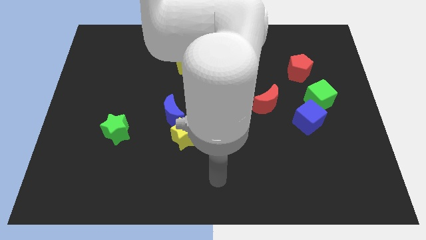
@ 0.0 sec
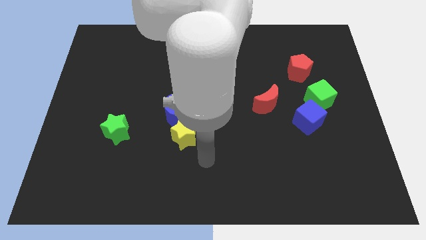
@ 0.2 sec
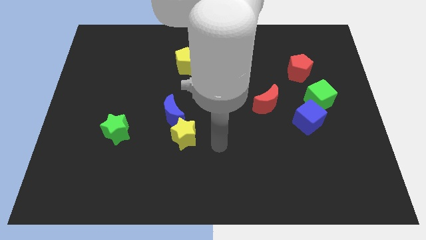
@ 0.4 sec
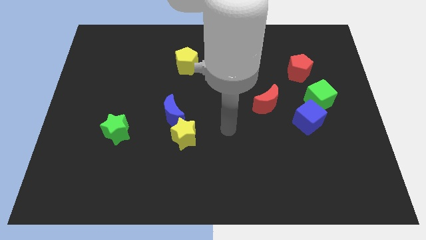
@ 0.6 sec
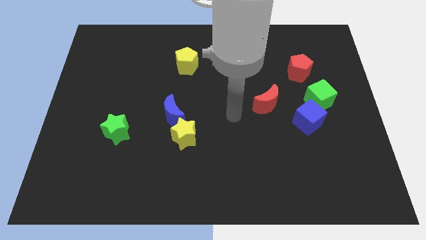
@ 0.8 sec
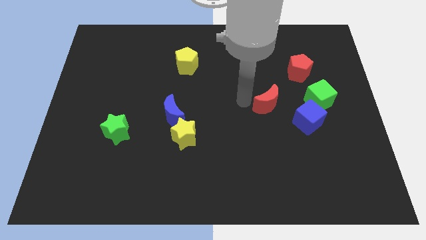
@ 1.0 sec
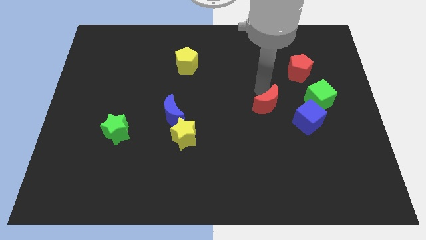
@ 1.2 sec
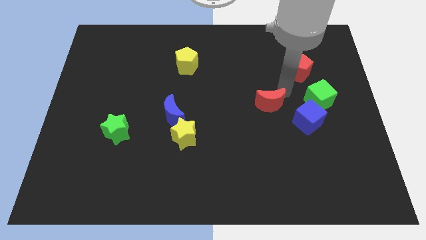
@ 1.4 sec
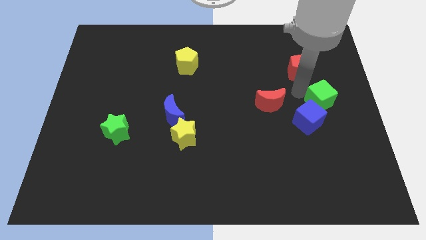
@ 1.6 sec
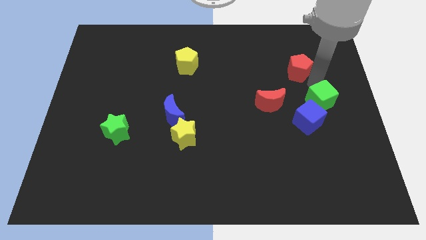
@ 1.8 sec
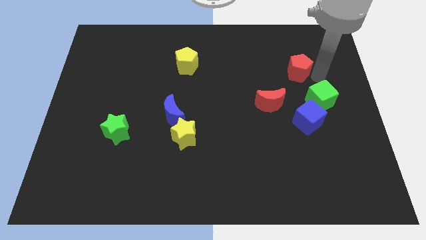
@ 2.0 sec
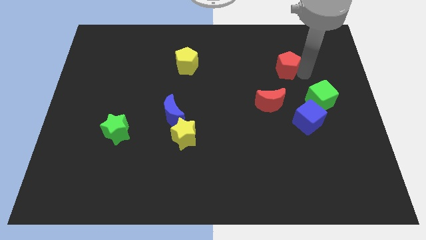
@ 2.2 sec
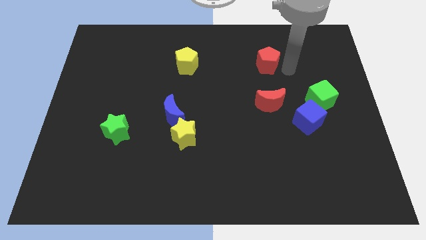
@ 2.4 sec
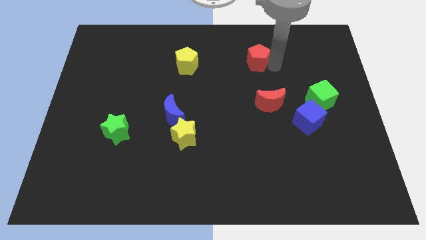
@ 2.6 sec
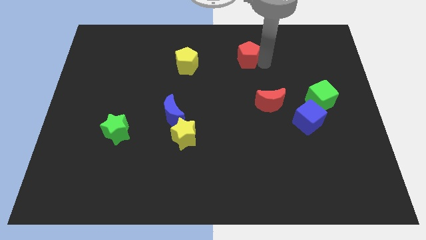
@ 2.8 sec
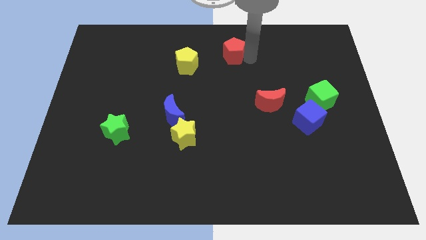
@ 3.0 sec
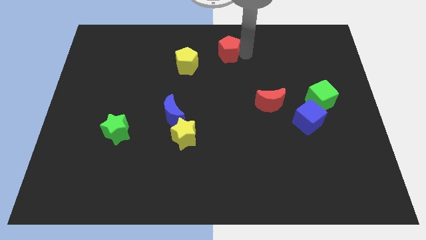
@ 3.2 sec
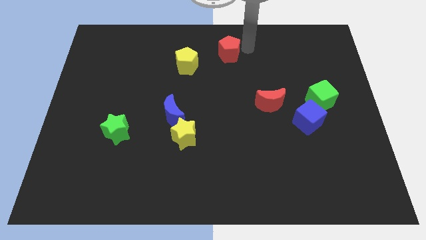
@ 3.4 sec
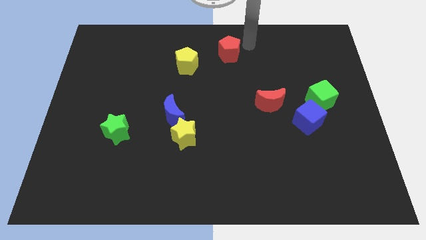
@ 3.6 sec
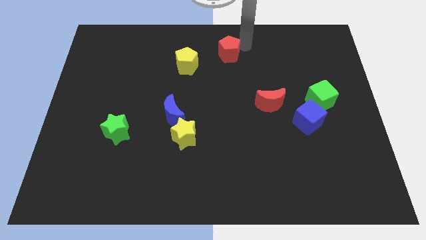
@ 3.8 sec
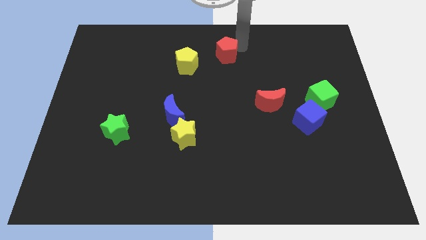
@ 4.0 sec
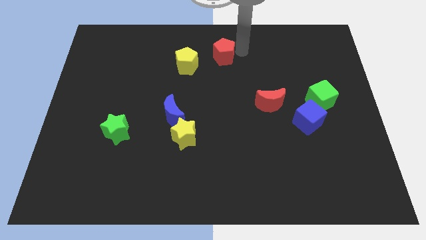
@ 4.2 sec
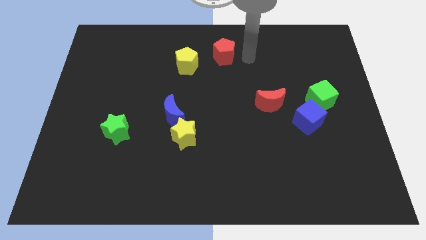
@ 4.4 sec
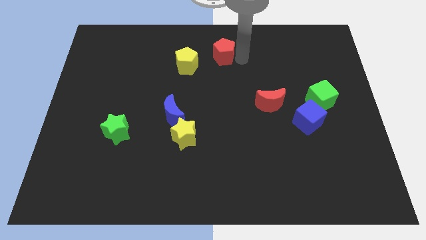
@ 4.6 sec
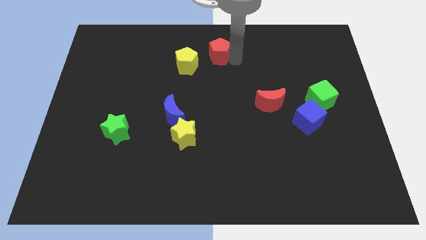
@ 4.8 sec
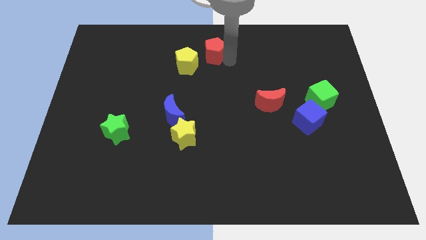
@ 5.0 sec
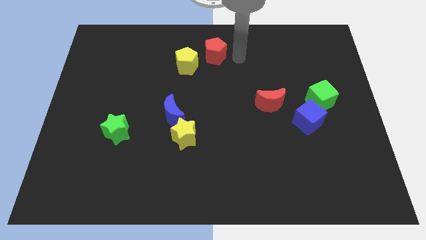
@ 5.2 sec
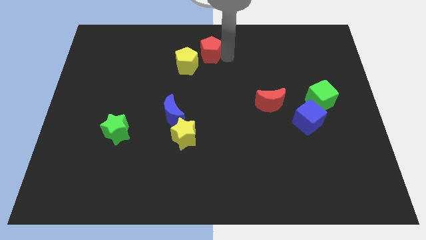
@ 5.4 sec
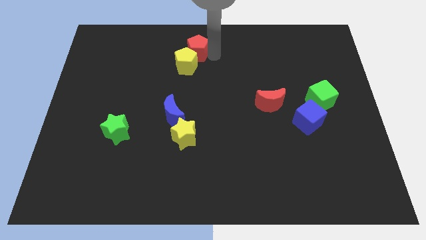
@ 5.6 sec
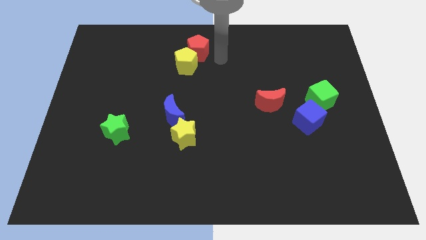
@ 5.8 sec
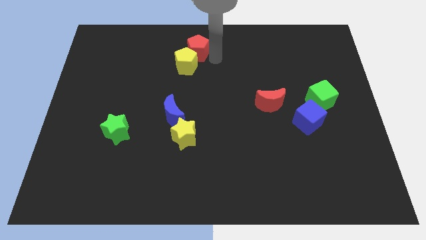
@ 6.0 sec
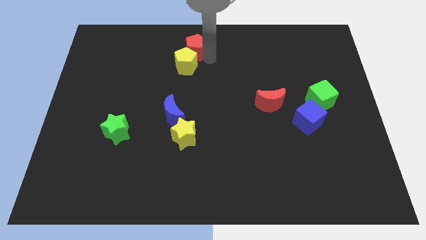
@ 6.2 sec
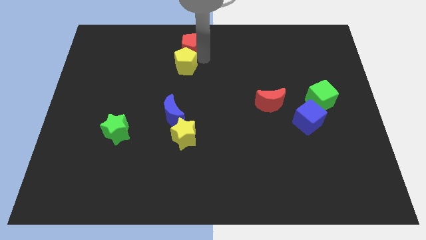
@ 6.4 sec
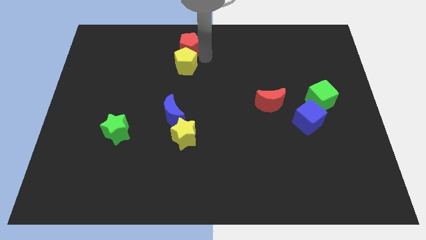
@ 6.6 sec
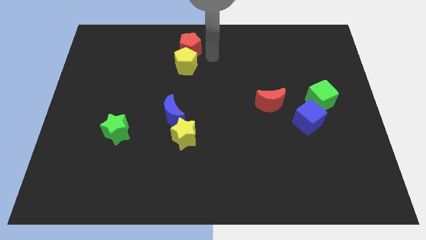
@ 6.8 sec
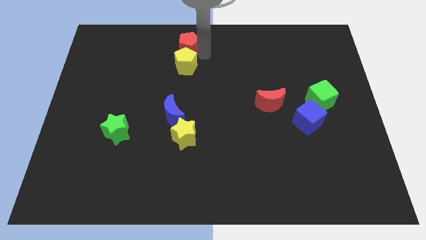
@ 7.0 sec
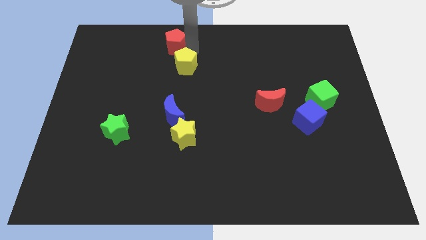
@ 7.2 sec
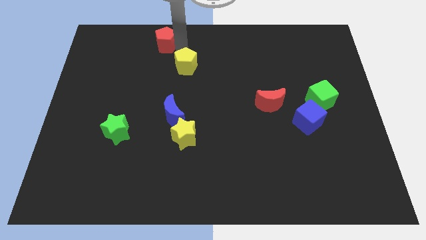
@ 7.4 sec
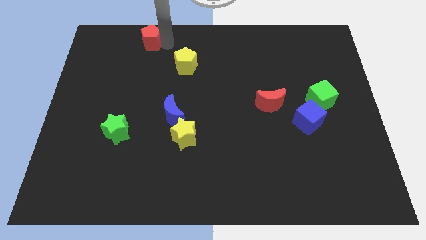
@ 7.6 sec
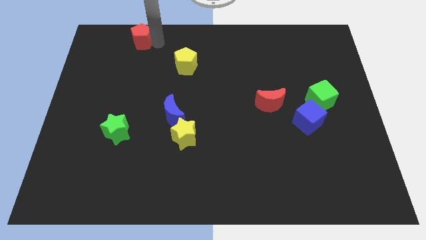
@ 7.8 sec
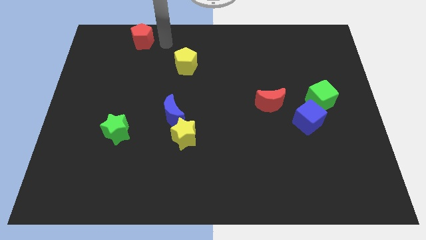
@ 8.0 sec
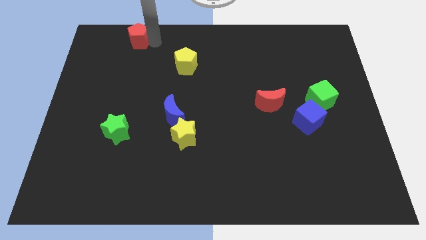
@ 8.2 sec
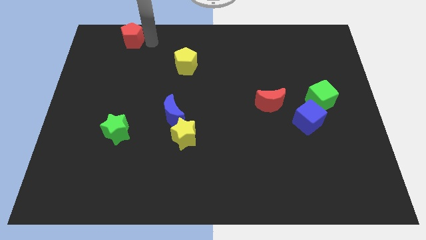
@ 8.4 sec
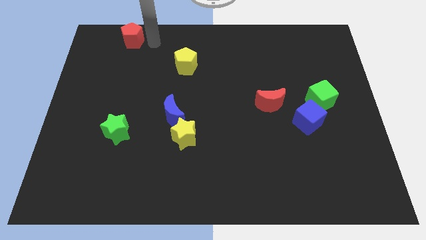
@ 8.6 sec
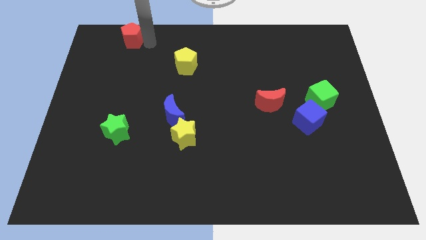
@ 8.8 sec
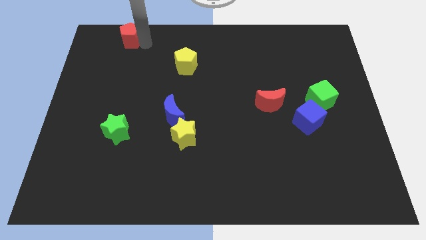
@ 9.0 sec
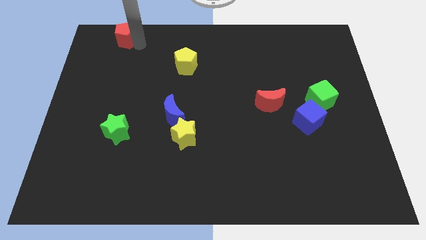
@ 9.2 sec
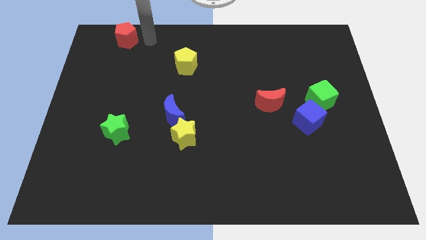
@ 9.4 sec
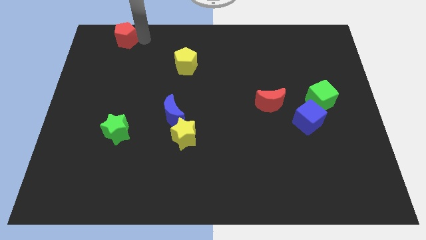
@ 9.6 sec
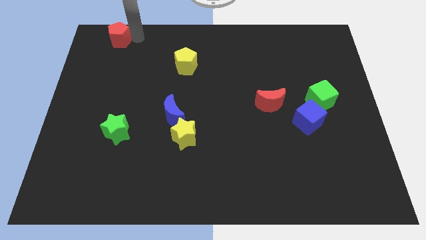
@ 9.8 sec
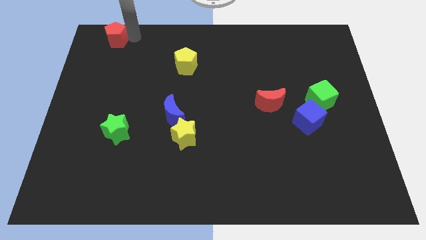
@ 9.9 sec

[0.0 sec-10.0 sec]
put the red pentagon to the top left of the board

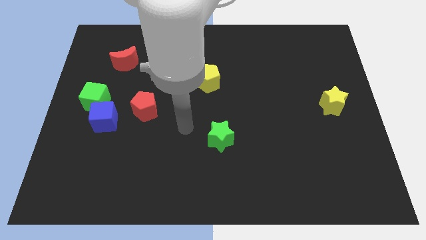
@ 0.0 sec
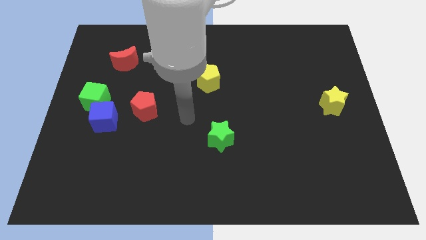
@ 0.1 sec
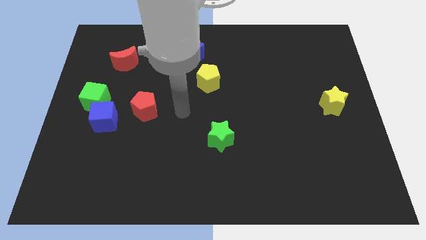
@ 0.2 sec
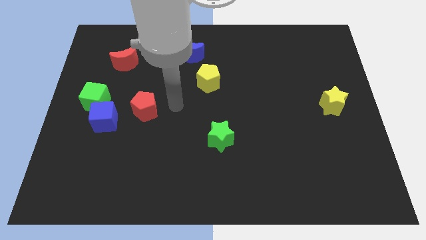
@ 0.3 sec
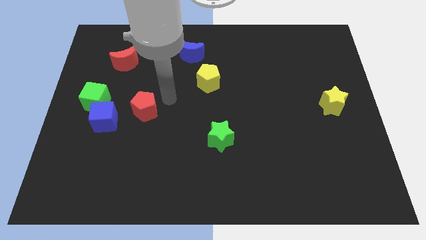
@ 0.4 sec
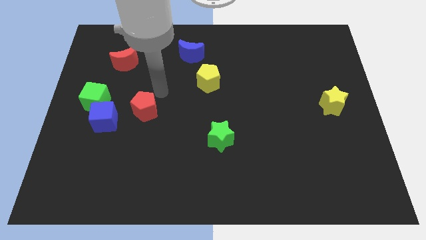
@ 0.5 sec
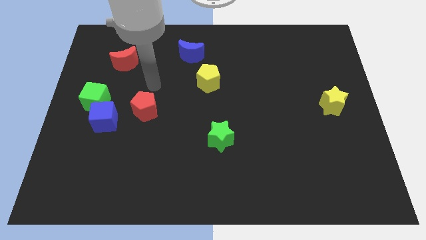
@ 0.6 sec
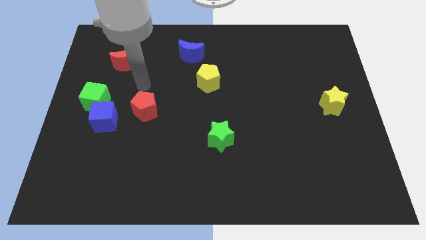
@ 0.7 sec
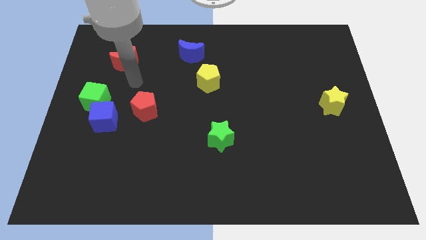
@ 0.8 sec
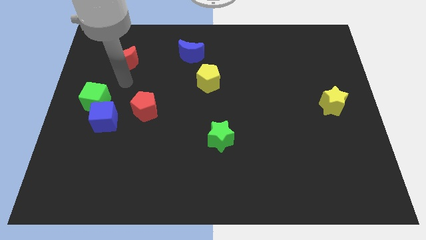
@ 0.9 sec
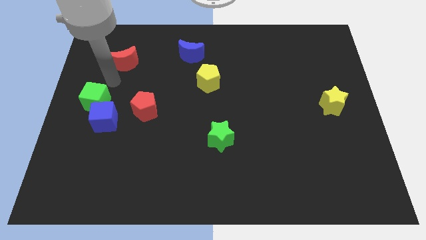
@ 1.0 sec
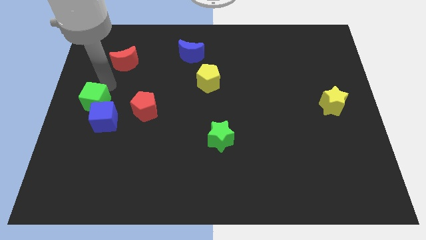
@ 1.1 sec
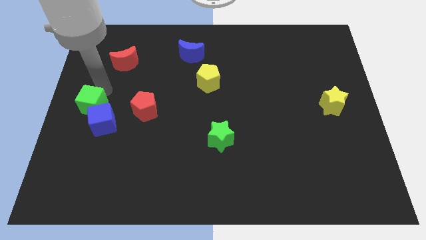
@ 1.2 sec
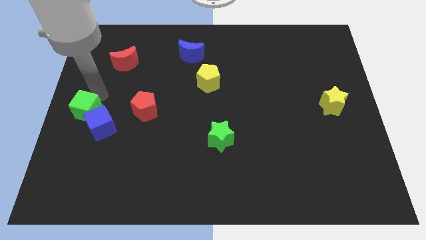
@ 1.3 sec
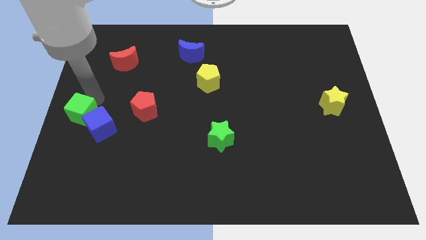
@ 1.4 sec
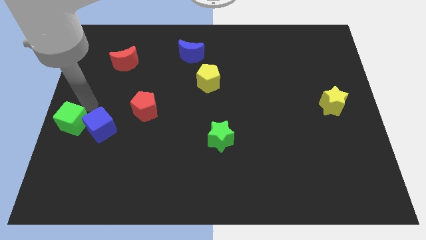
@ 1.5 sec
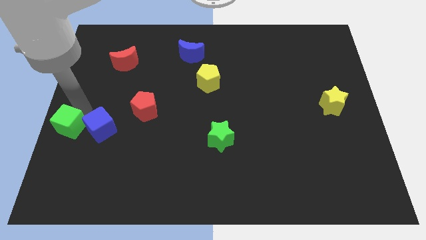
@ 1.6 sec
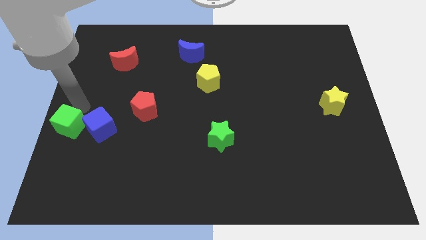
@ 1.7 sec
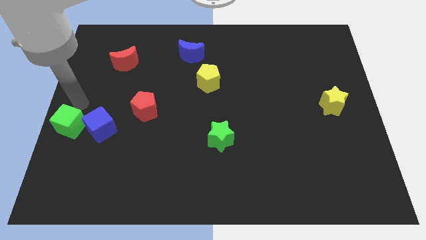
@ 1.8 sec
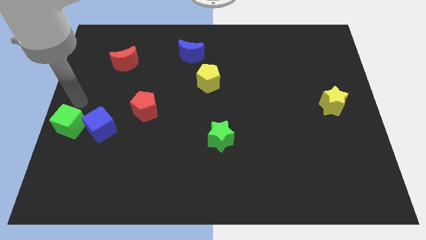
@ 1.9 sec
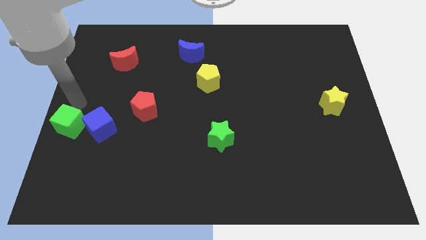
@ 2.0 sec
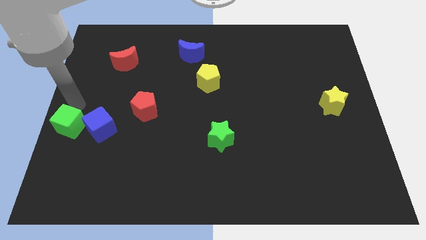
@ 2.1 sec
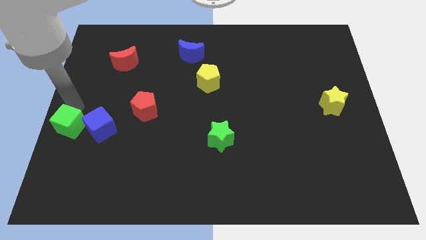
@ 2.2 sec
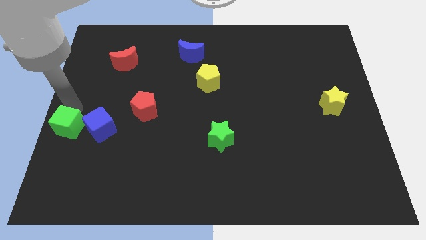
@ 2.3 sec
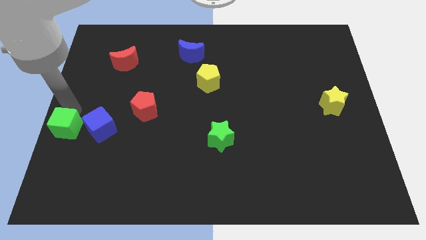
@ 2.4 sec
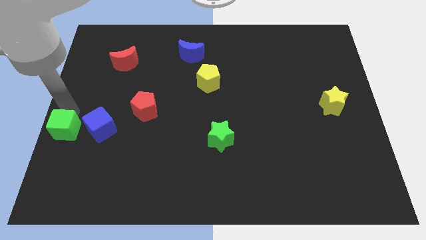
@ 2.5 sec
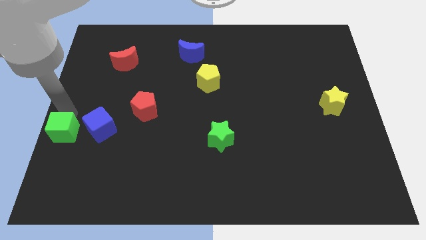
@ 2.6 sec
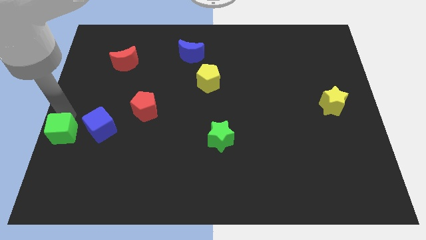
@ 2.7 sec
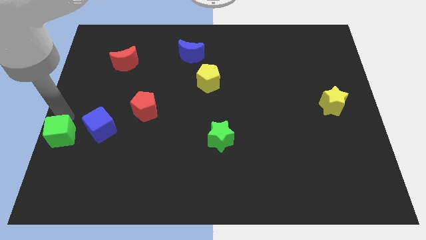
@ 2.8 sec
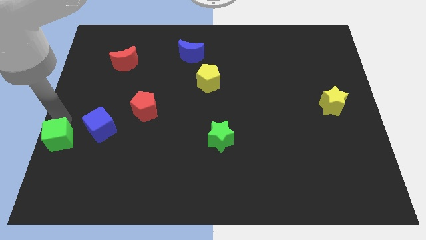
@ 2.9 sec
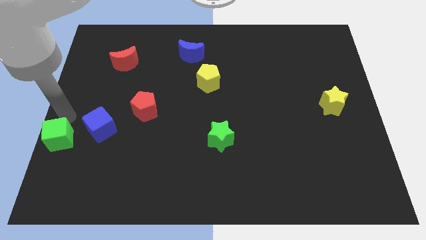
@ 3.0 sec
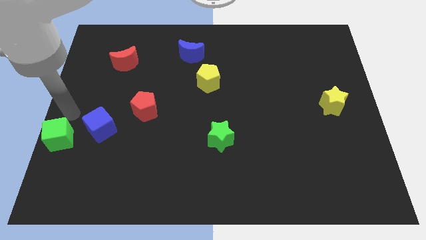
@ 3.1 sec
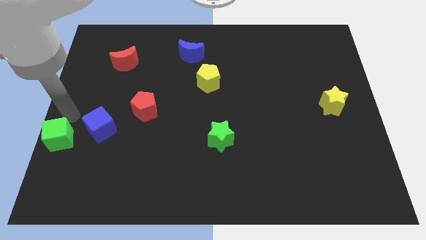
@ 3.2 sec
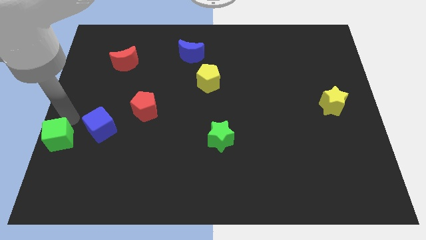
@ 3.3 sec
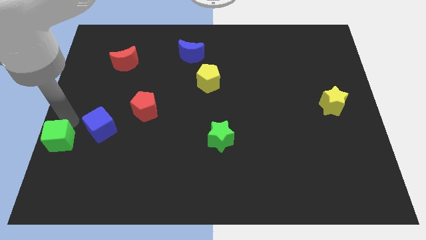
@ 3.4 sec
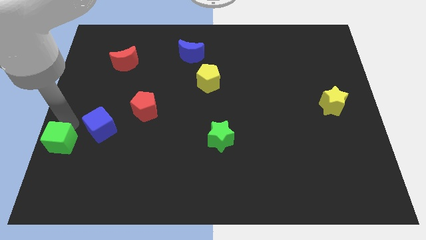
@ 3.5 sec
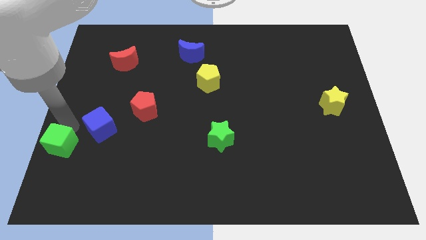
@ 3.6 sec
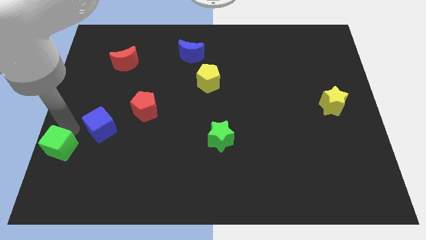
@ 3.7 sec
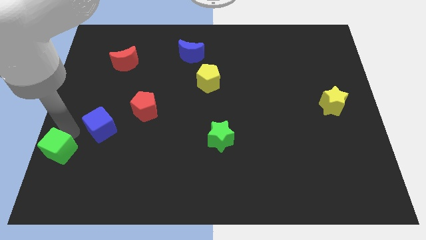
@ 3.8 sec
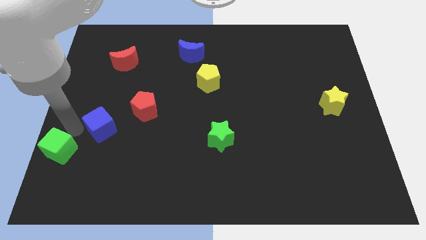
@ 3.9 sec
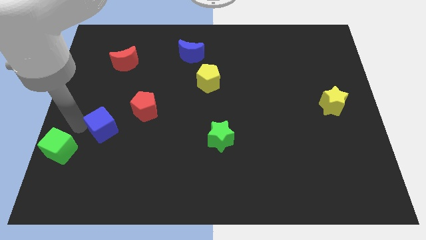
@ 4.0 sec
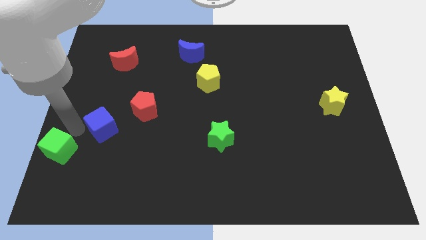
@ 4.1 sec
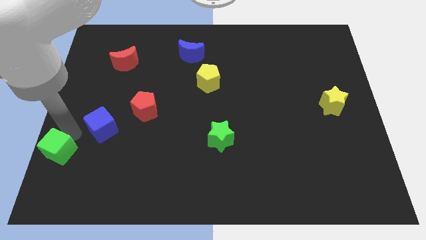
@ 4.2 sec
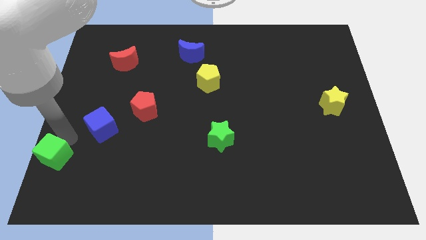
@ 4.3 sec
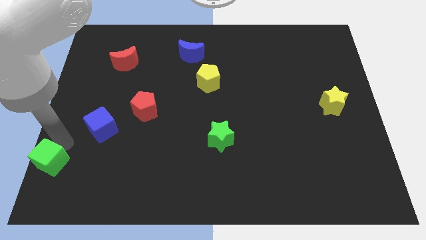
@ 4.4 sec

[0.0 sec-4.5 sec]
slide the green cube to the bottom left
